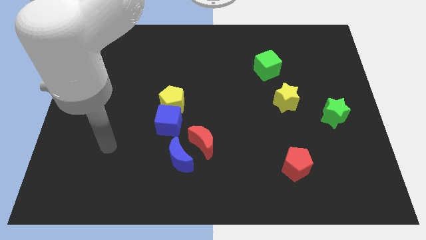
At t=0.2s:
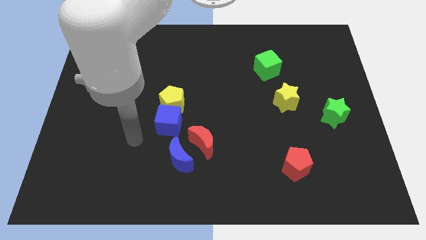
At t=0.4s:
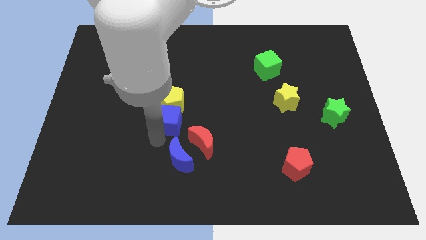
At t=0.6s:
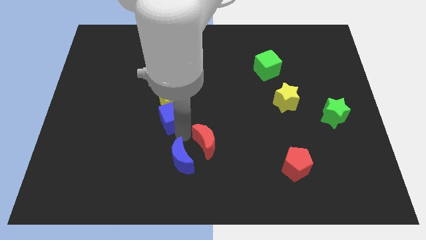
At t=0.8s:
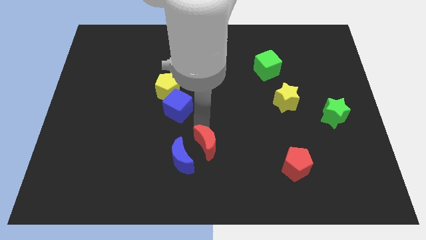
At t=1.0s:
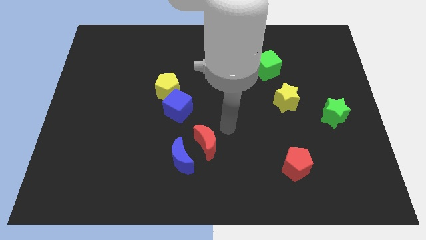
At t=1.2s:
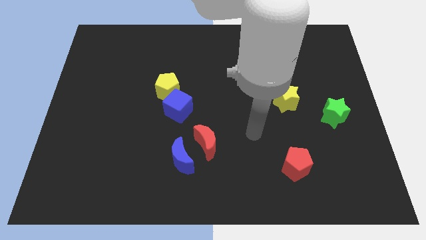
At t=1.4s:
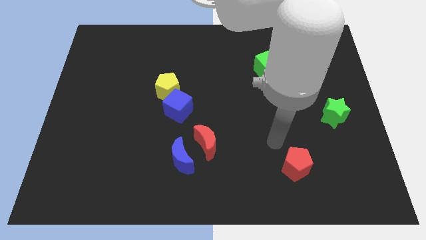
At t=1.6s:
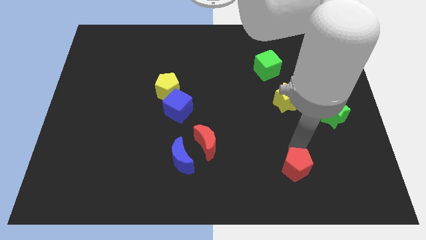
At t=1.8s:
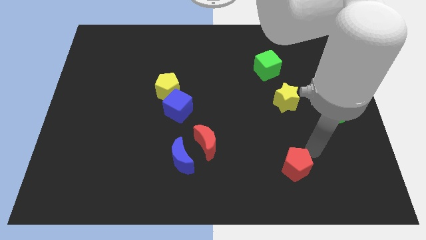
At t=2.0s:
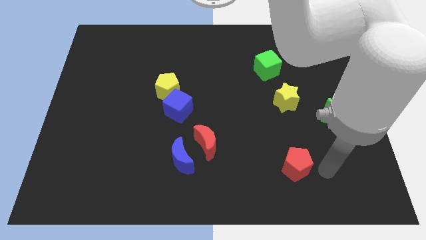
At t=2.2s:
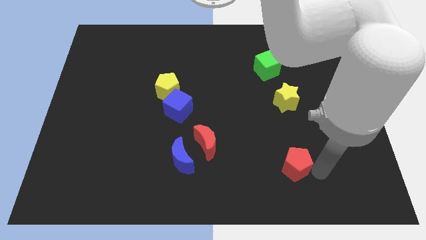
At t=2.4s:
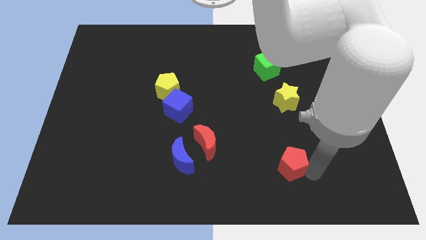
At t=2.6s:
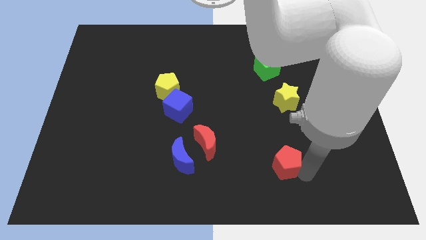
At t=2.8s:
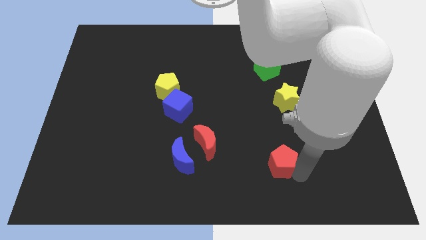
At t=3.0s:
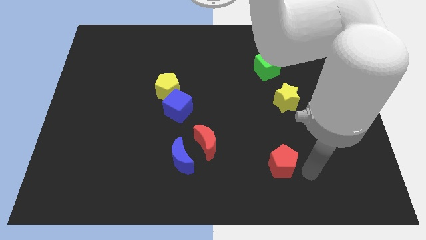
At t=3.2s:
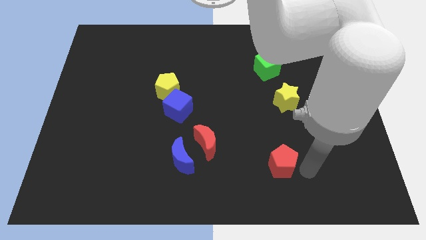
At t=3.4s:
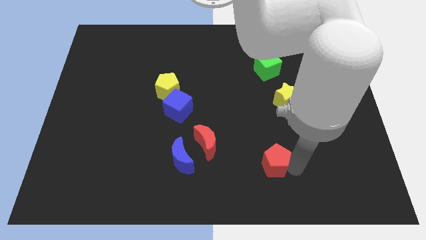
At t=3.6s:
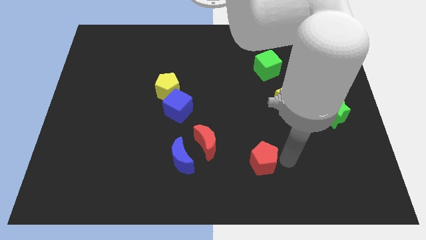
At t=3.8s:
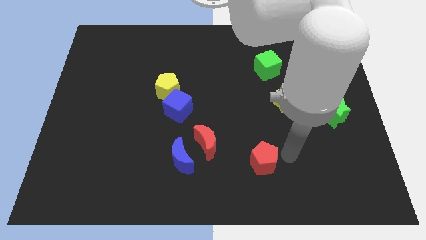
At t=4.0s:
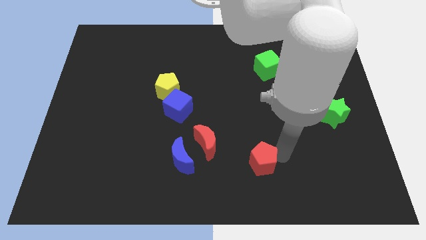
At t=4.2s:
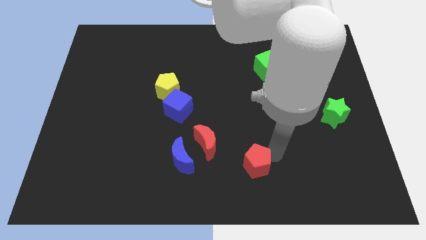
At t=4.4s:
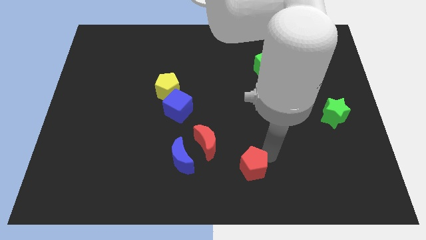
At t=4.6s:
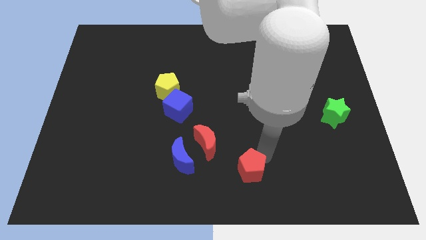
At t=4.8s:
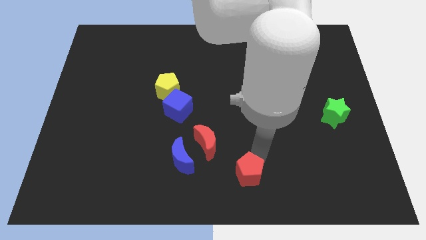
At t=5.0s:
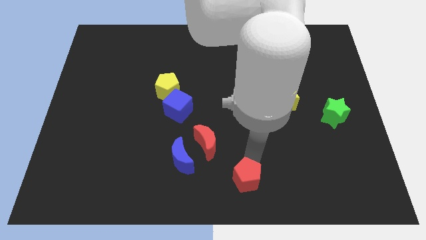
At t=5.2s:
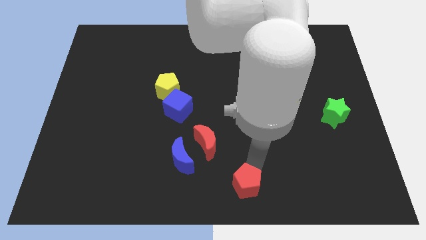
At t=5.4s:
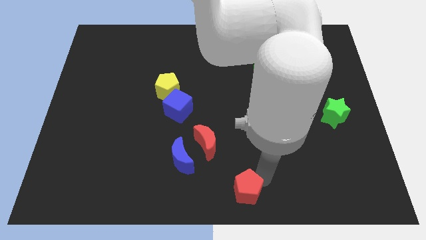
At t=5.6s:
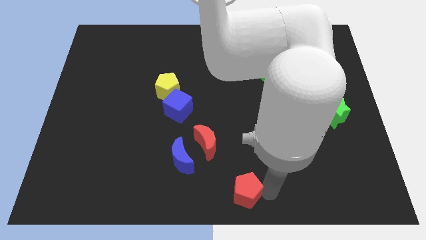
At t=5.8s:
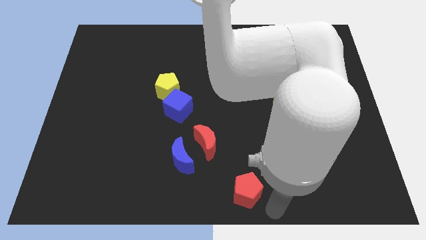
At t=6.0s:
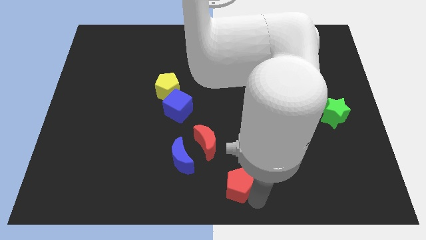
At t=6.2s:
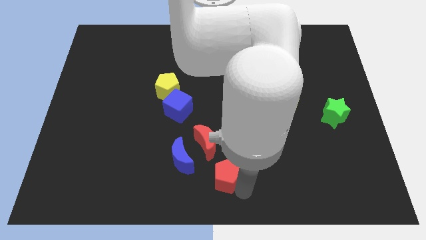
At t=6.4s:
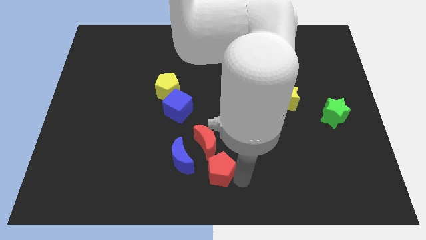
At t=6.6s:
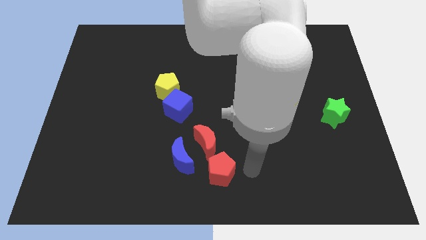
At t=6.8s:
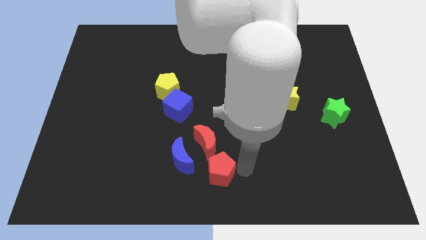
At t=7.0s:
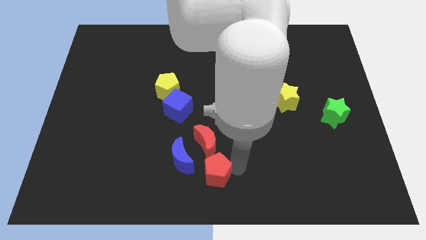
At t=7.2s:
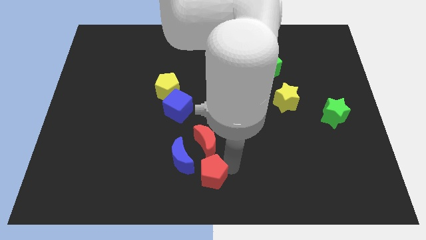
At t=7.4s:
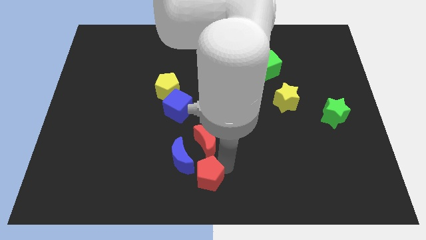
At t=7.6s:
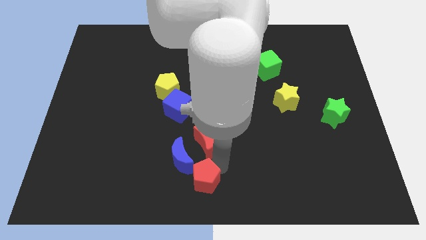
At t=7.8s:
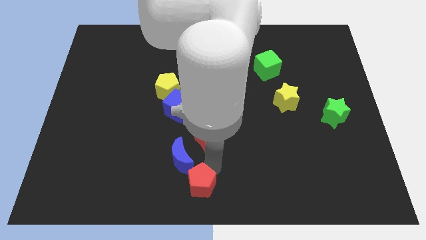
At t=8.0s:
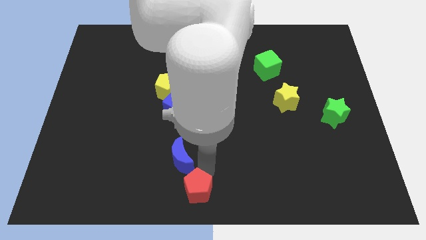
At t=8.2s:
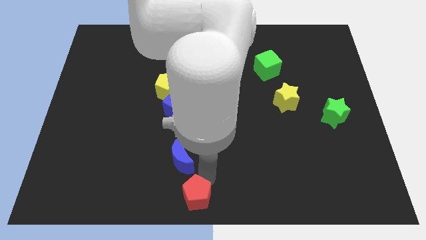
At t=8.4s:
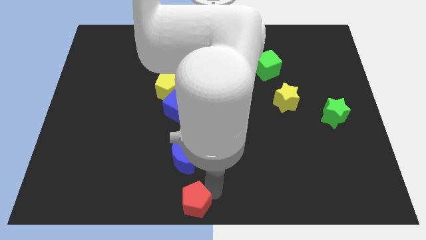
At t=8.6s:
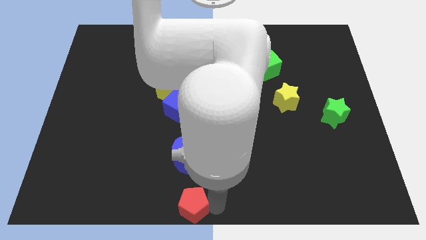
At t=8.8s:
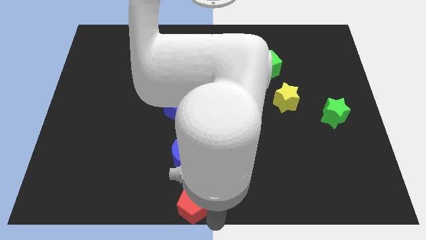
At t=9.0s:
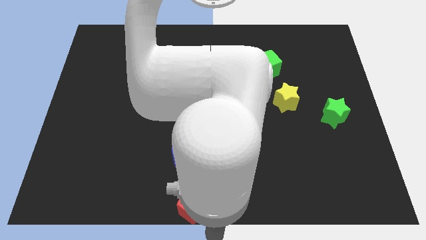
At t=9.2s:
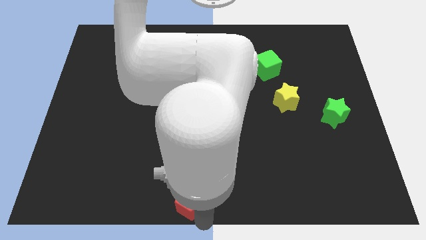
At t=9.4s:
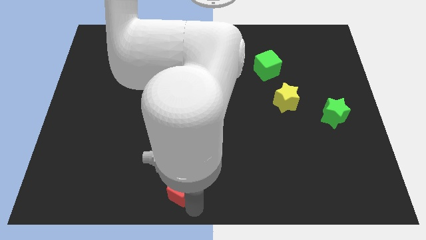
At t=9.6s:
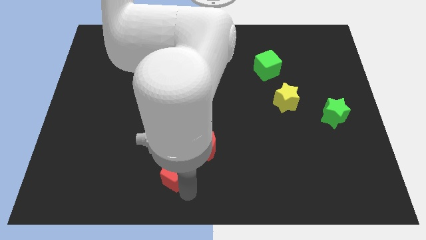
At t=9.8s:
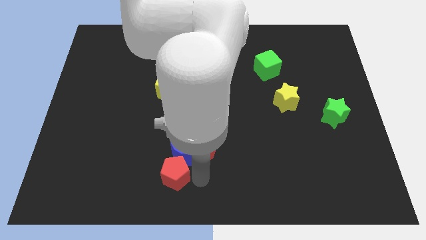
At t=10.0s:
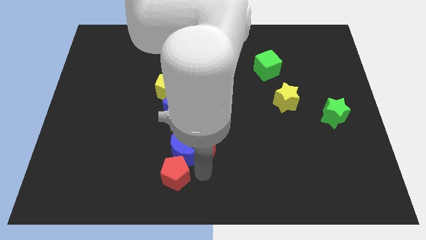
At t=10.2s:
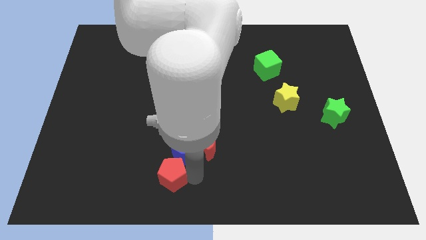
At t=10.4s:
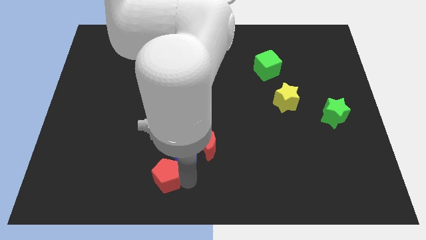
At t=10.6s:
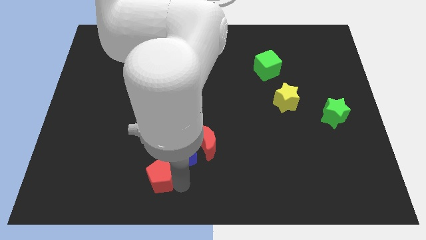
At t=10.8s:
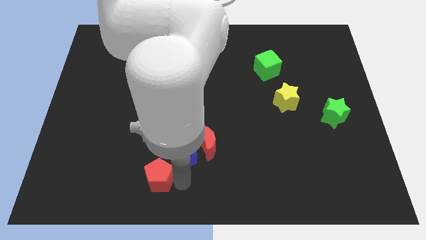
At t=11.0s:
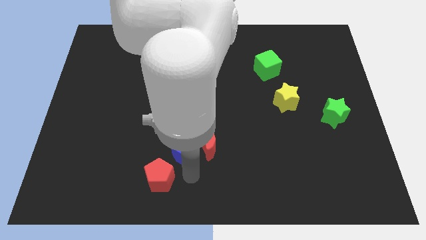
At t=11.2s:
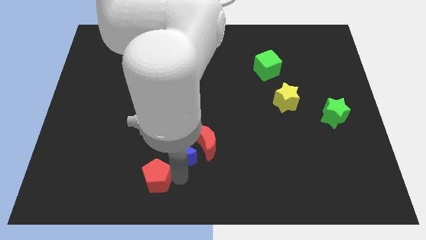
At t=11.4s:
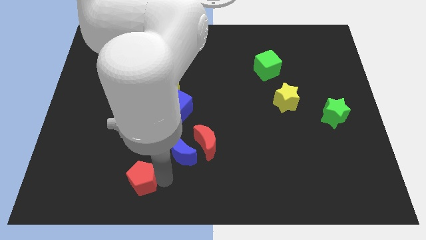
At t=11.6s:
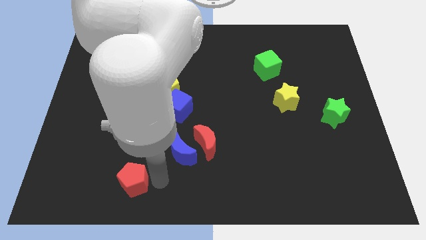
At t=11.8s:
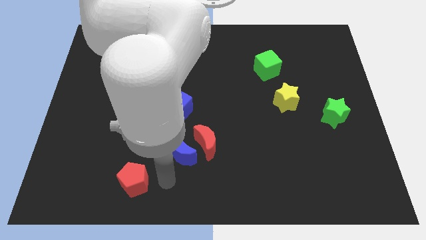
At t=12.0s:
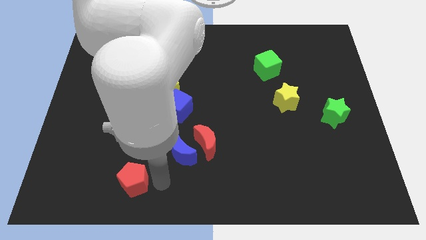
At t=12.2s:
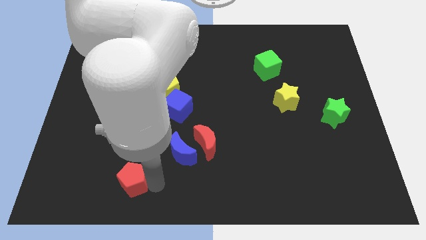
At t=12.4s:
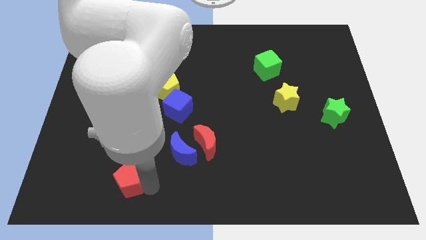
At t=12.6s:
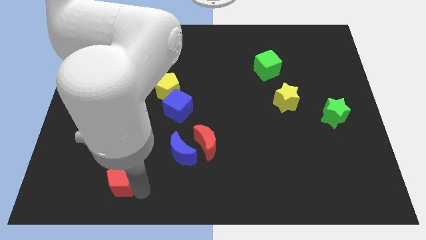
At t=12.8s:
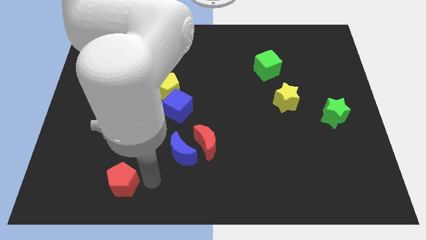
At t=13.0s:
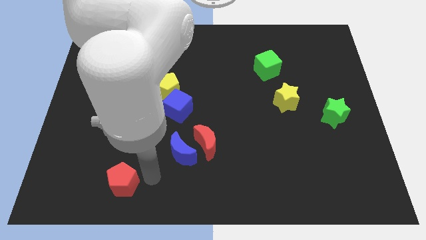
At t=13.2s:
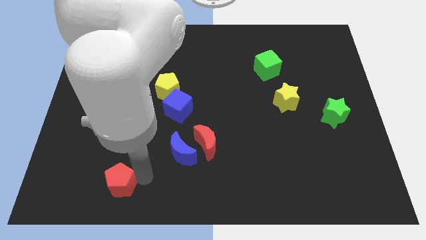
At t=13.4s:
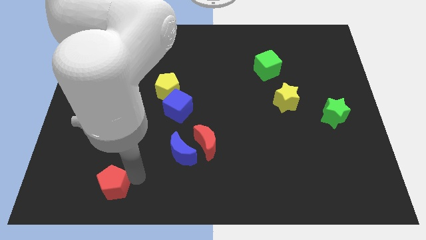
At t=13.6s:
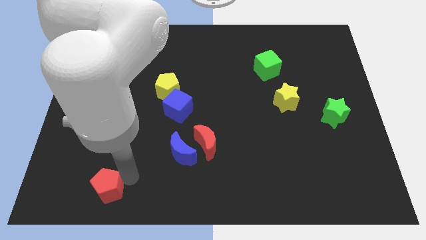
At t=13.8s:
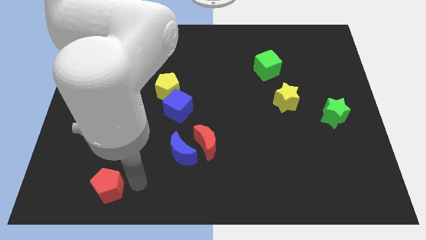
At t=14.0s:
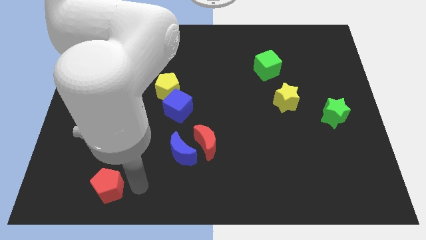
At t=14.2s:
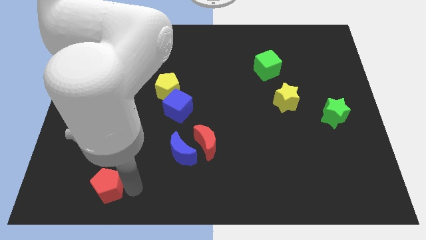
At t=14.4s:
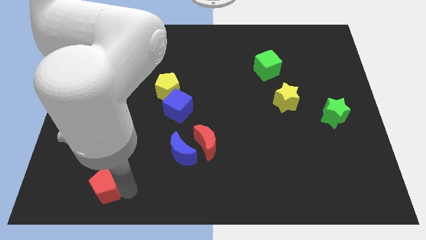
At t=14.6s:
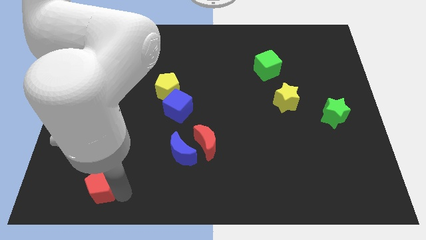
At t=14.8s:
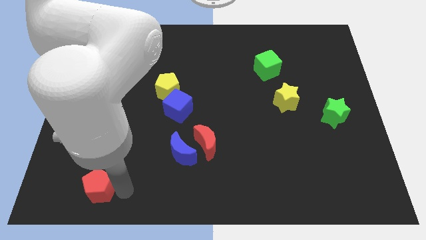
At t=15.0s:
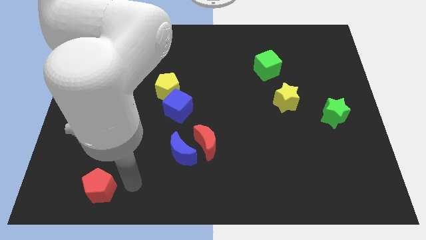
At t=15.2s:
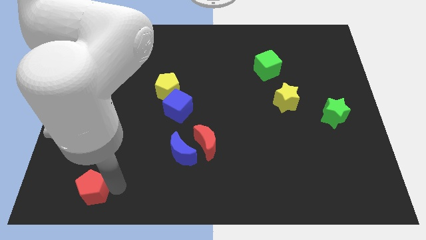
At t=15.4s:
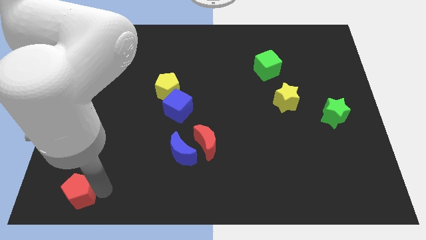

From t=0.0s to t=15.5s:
put the red pentagon to the bottom left corner
